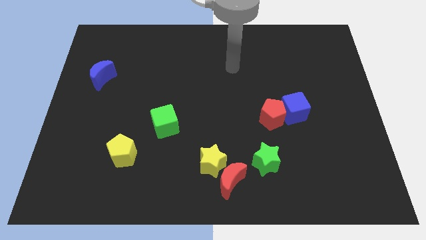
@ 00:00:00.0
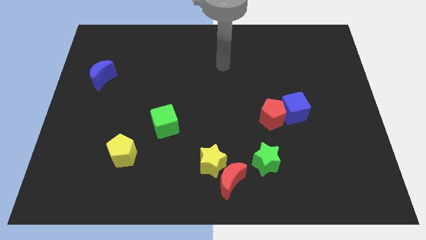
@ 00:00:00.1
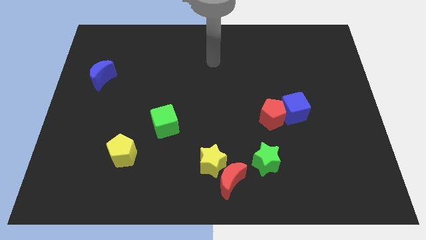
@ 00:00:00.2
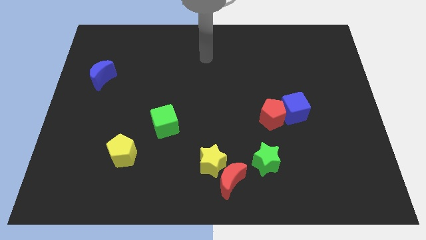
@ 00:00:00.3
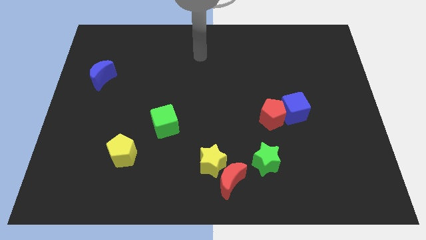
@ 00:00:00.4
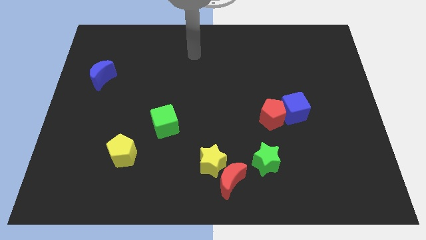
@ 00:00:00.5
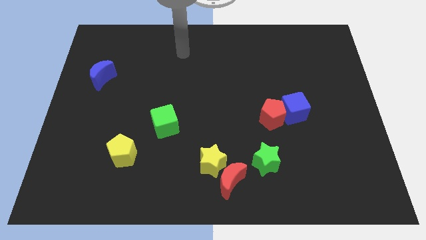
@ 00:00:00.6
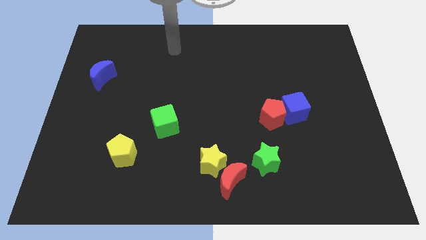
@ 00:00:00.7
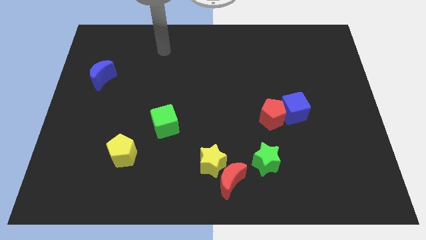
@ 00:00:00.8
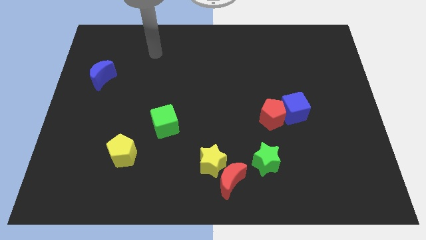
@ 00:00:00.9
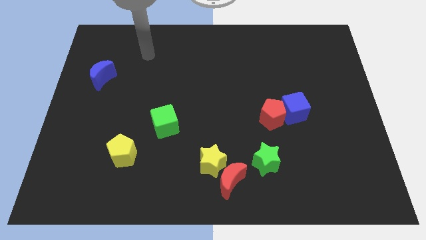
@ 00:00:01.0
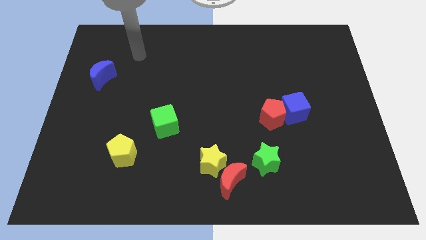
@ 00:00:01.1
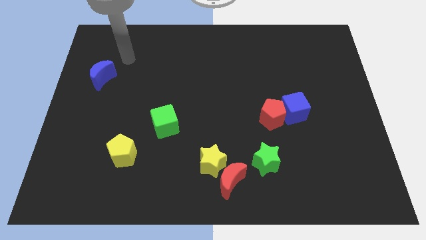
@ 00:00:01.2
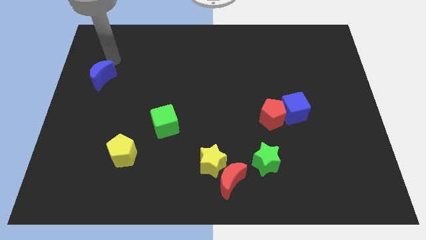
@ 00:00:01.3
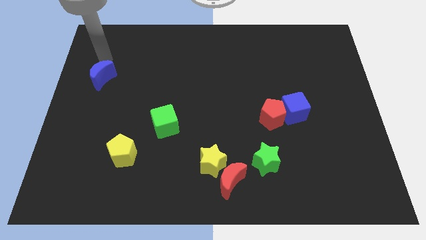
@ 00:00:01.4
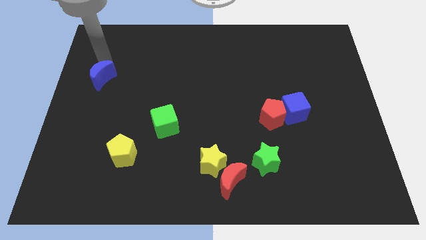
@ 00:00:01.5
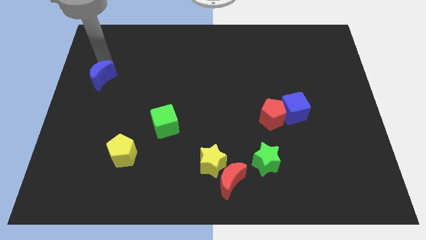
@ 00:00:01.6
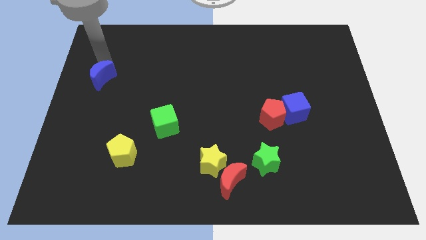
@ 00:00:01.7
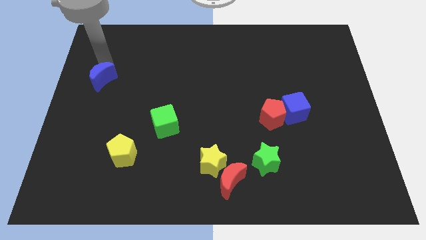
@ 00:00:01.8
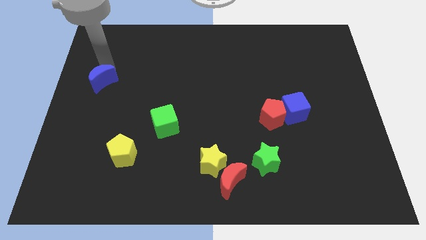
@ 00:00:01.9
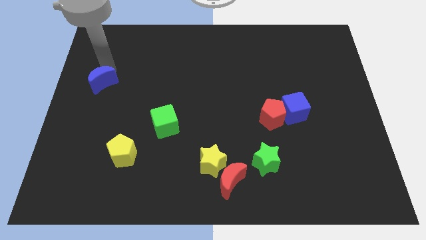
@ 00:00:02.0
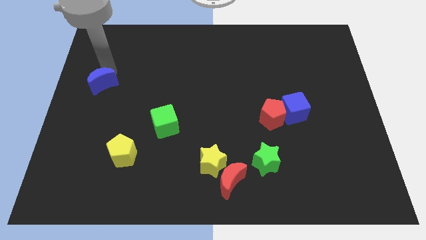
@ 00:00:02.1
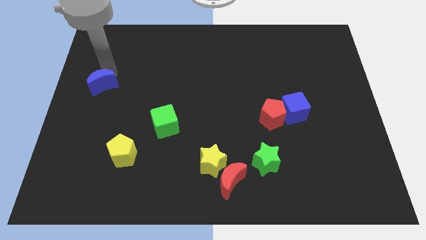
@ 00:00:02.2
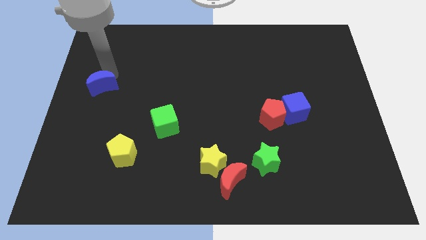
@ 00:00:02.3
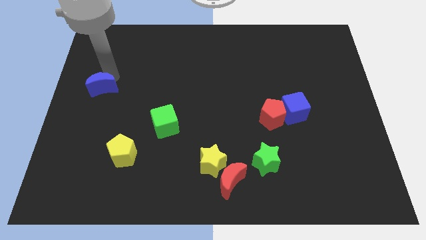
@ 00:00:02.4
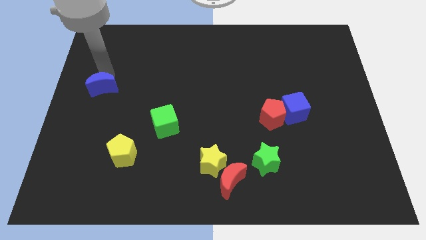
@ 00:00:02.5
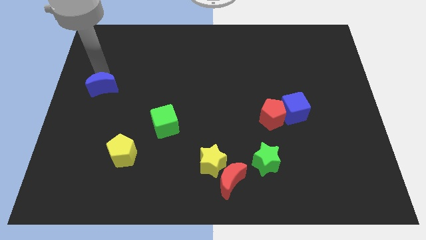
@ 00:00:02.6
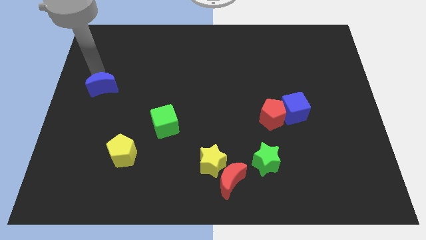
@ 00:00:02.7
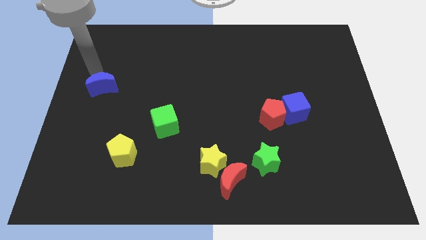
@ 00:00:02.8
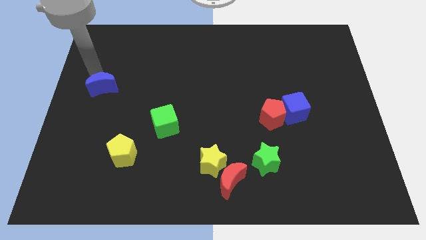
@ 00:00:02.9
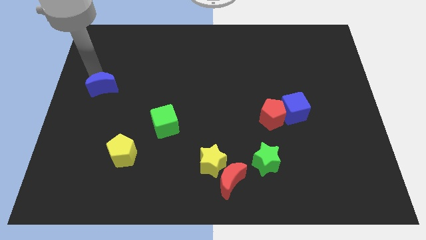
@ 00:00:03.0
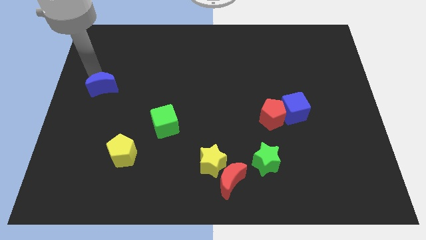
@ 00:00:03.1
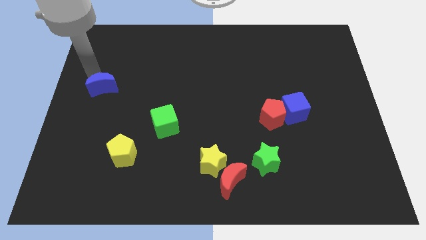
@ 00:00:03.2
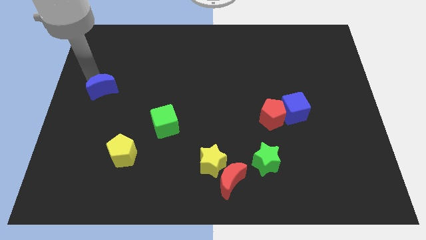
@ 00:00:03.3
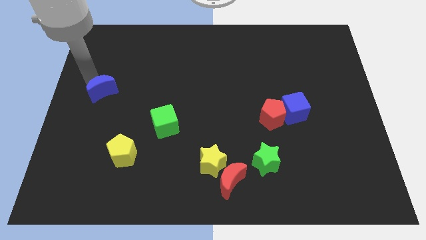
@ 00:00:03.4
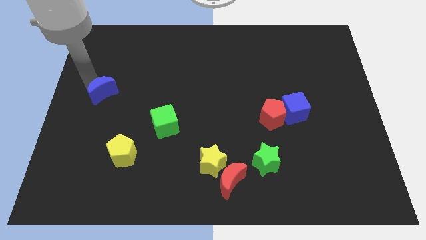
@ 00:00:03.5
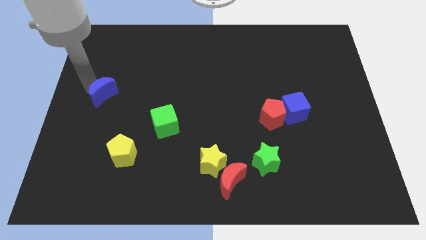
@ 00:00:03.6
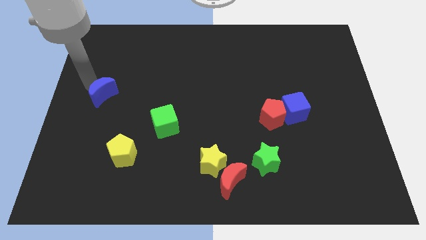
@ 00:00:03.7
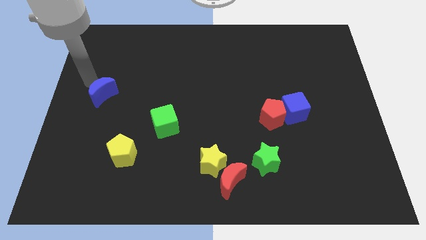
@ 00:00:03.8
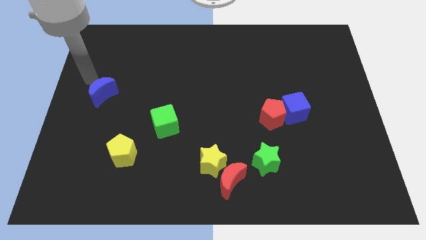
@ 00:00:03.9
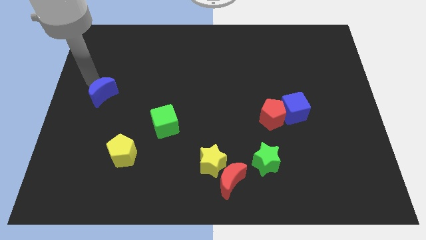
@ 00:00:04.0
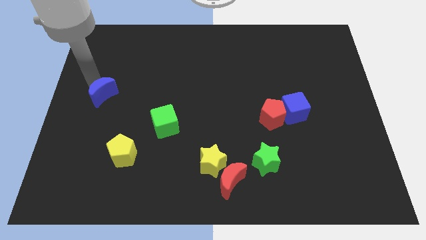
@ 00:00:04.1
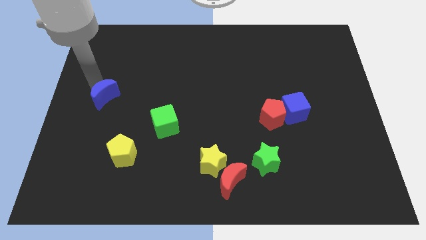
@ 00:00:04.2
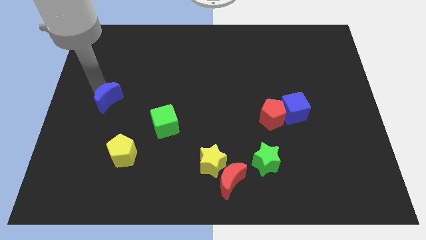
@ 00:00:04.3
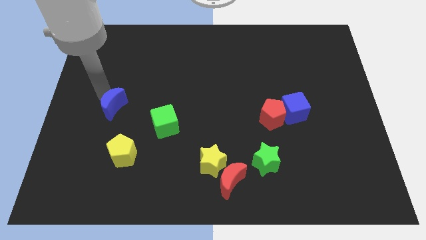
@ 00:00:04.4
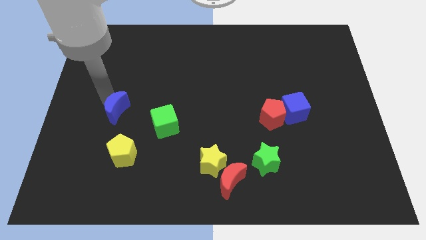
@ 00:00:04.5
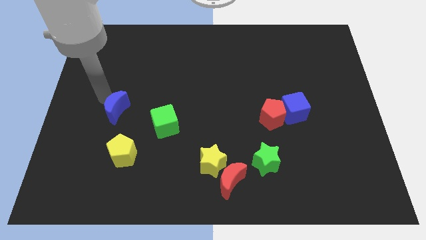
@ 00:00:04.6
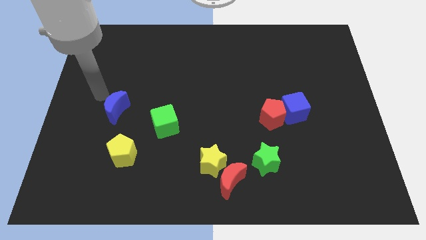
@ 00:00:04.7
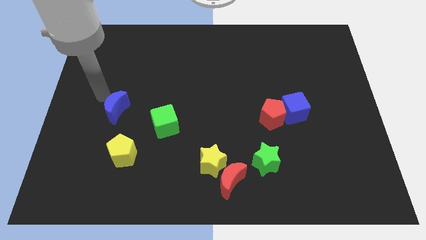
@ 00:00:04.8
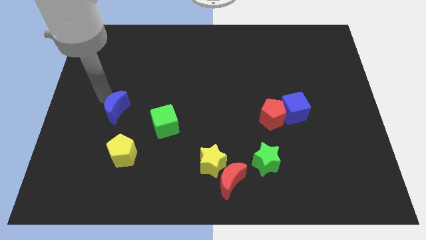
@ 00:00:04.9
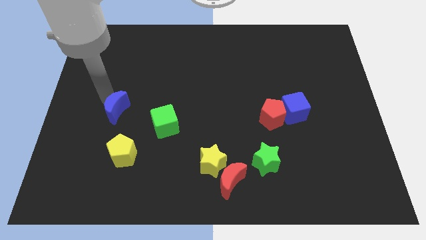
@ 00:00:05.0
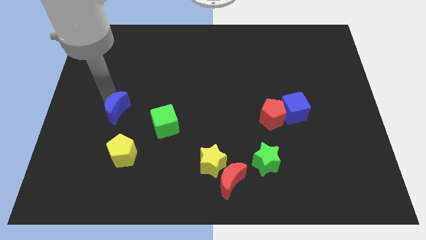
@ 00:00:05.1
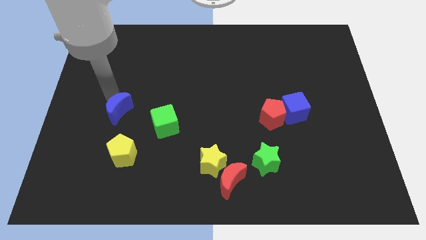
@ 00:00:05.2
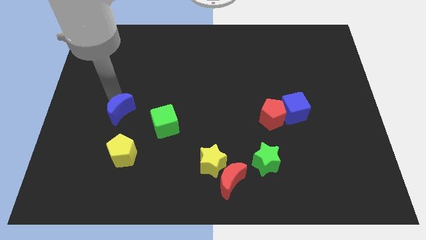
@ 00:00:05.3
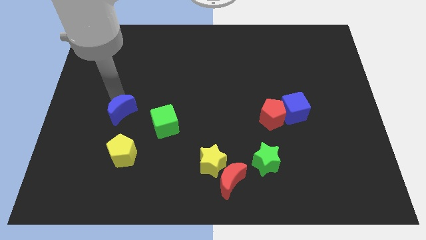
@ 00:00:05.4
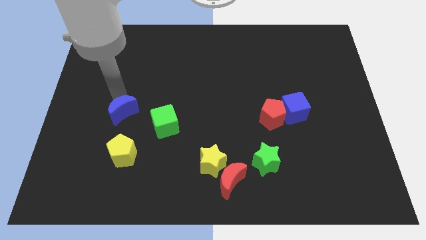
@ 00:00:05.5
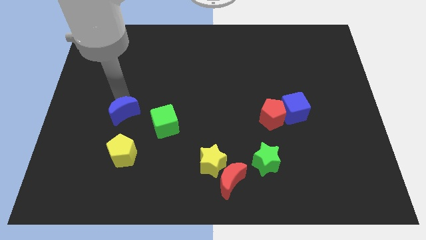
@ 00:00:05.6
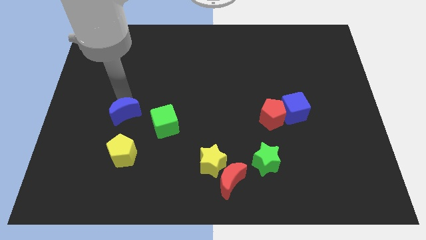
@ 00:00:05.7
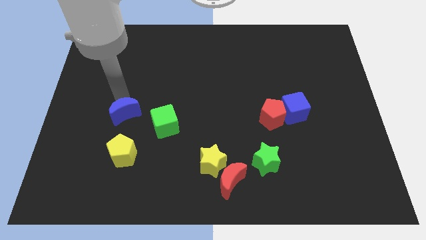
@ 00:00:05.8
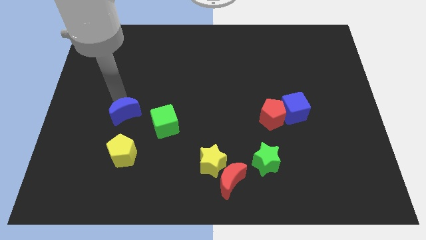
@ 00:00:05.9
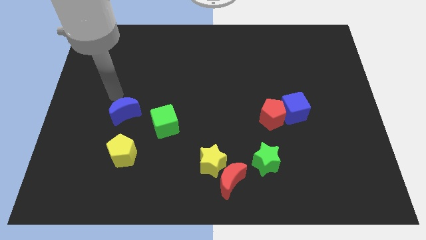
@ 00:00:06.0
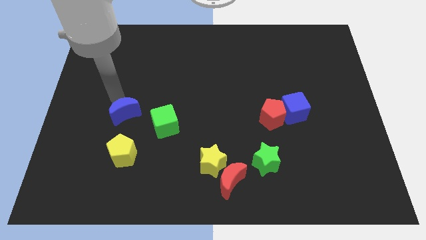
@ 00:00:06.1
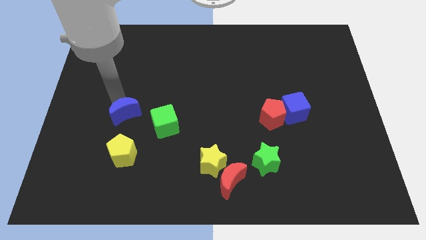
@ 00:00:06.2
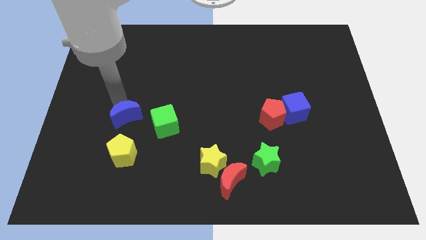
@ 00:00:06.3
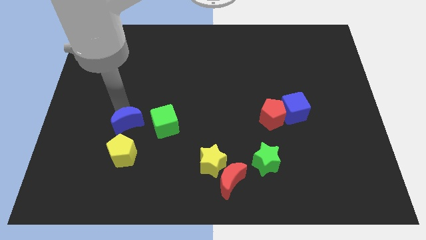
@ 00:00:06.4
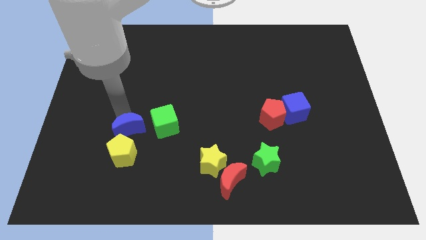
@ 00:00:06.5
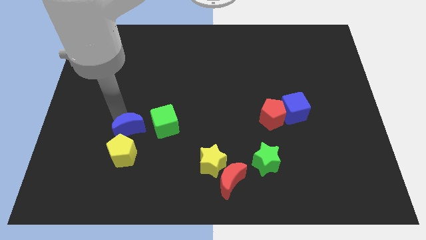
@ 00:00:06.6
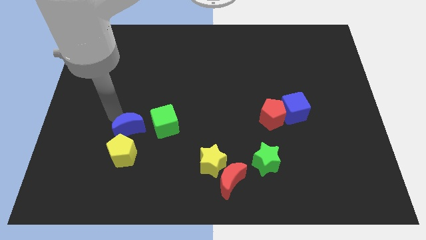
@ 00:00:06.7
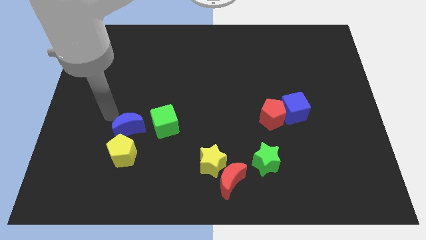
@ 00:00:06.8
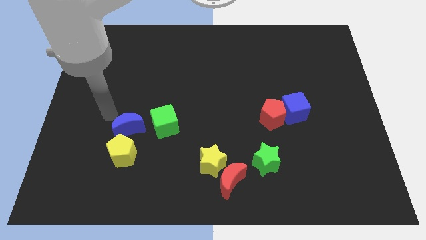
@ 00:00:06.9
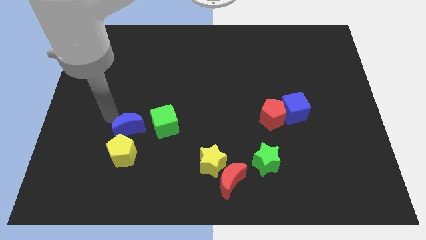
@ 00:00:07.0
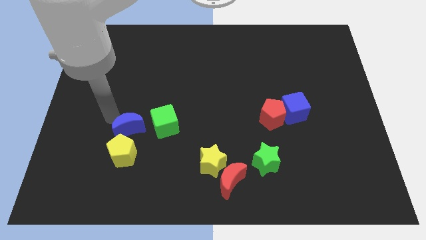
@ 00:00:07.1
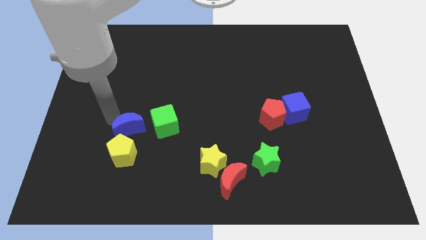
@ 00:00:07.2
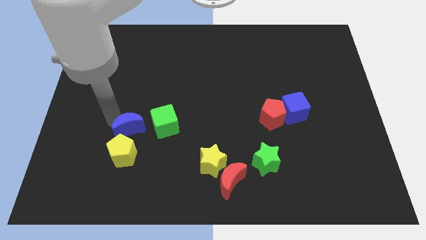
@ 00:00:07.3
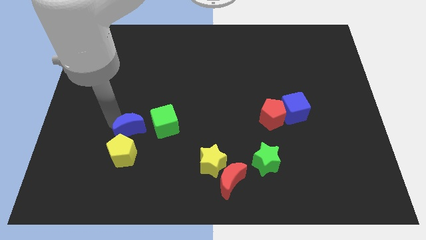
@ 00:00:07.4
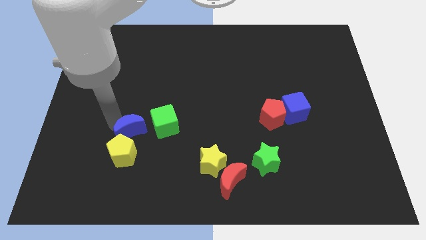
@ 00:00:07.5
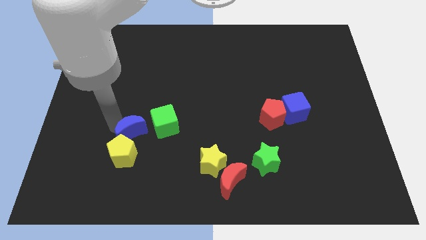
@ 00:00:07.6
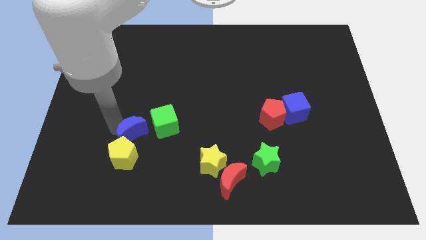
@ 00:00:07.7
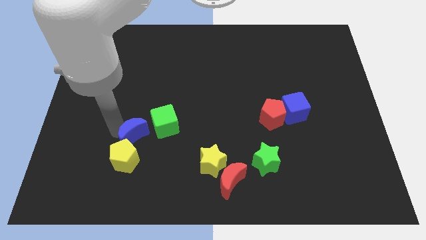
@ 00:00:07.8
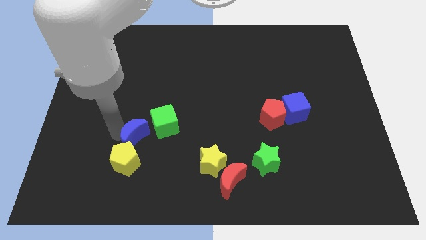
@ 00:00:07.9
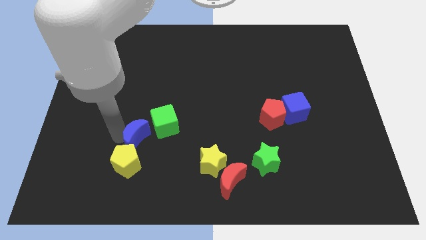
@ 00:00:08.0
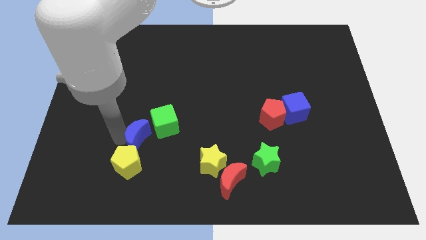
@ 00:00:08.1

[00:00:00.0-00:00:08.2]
move the blue moon down and right diagonally
